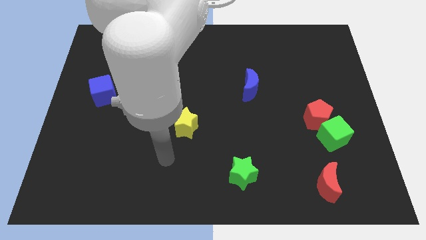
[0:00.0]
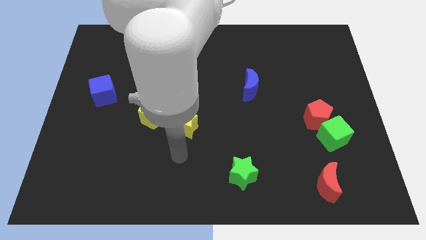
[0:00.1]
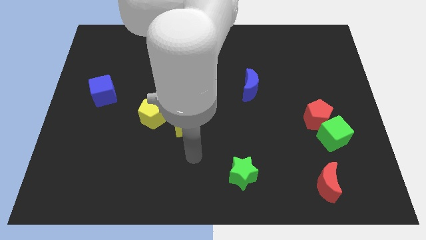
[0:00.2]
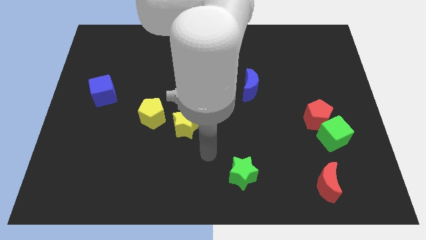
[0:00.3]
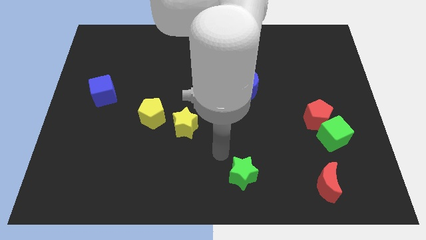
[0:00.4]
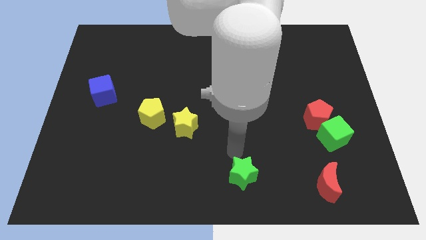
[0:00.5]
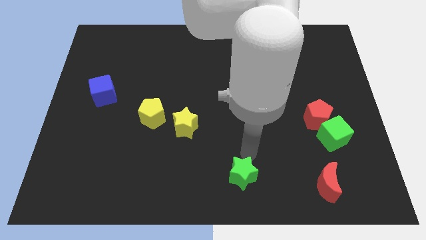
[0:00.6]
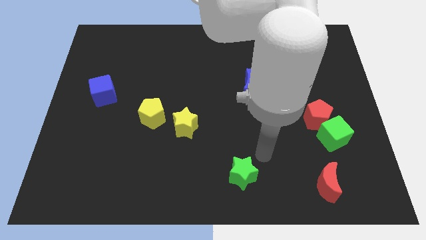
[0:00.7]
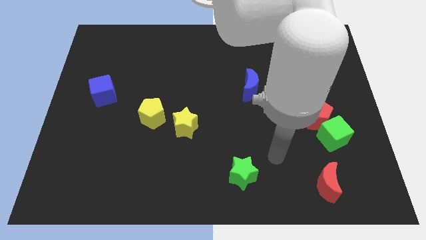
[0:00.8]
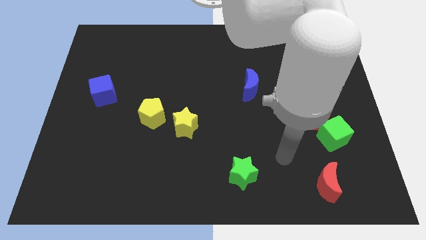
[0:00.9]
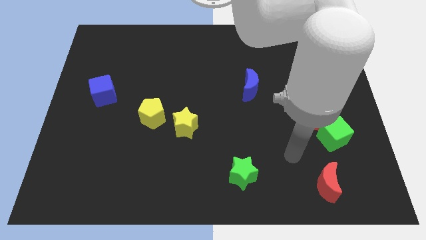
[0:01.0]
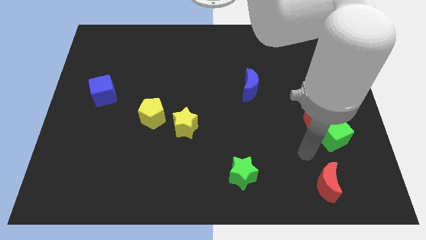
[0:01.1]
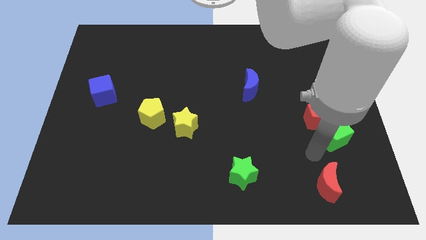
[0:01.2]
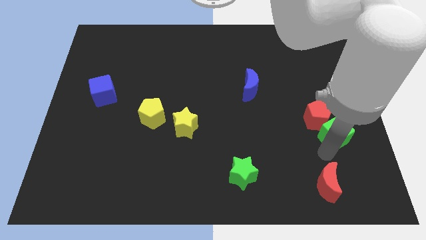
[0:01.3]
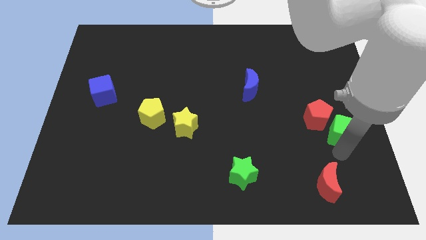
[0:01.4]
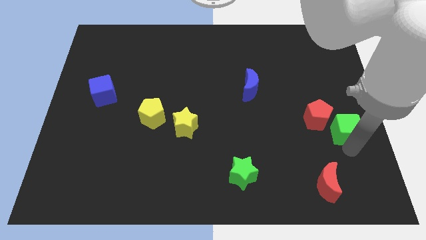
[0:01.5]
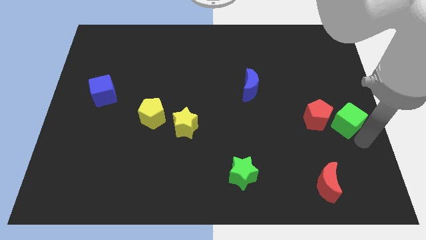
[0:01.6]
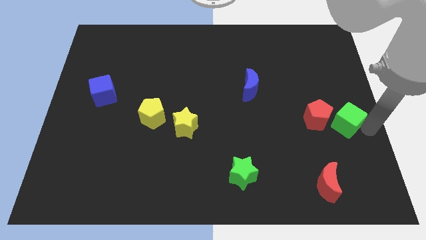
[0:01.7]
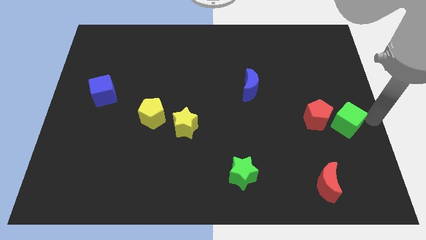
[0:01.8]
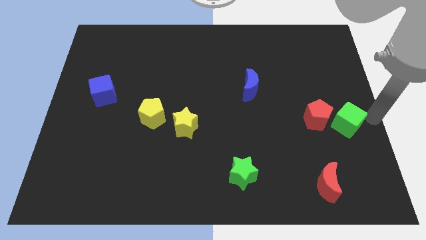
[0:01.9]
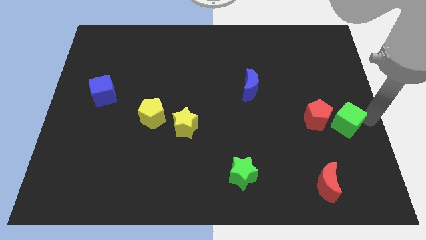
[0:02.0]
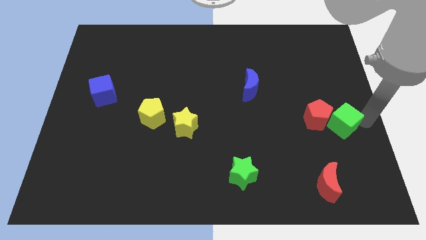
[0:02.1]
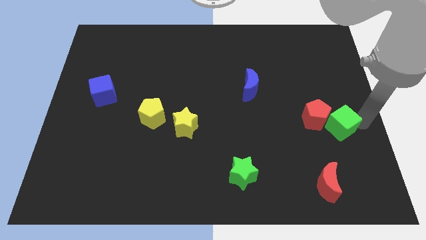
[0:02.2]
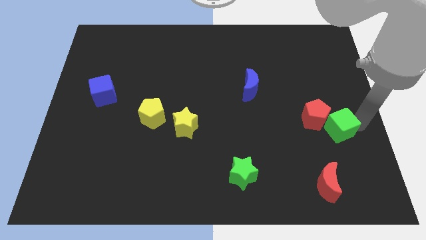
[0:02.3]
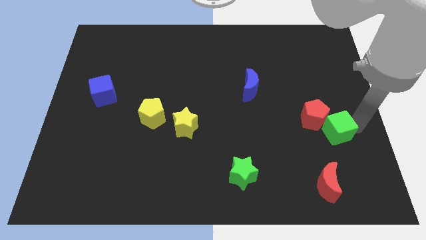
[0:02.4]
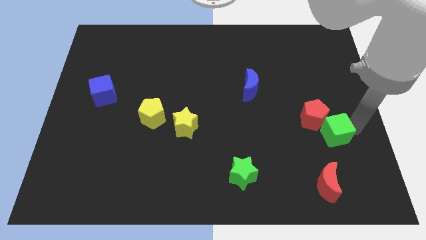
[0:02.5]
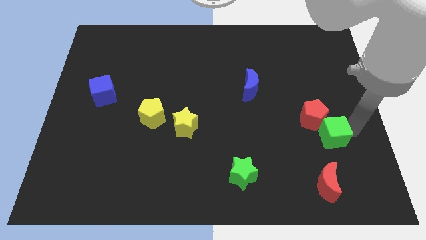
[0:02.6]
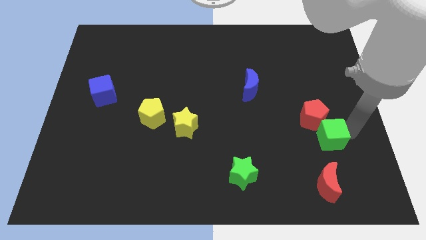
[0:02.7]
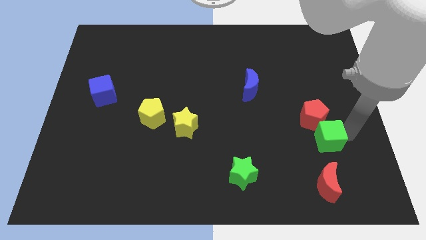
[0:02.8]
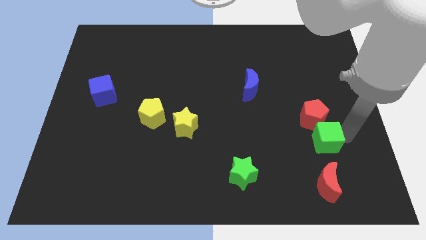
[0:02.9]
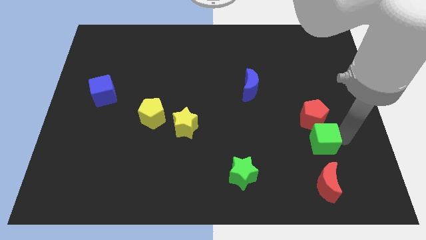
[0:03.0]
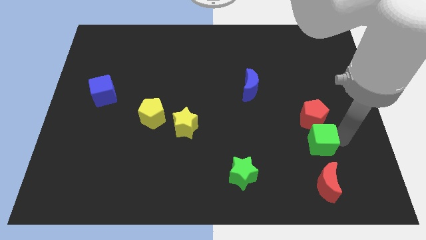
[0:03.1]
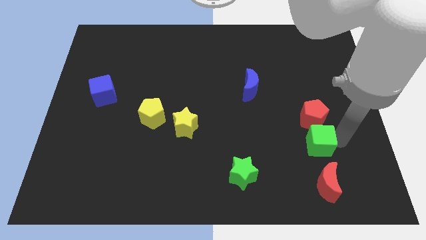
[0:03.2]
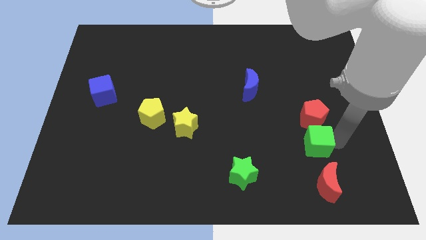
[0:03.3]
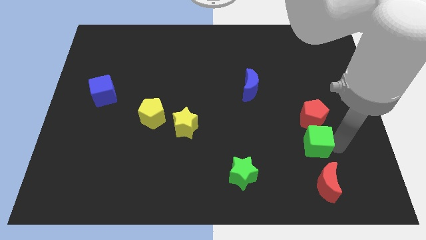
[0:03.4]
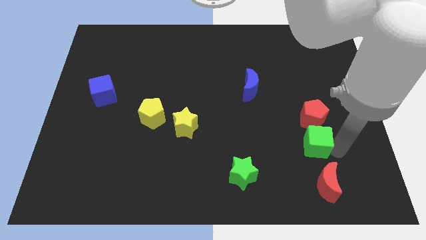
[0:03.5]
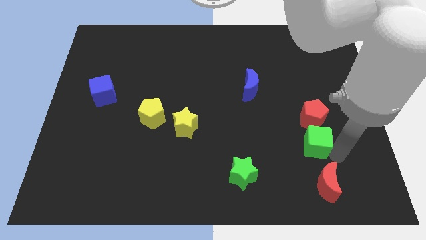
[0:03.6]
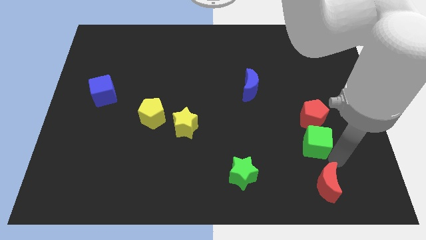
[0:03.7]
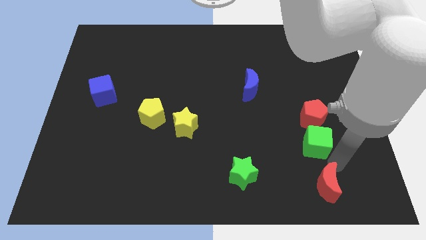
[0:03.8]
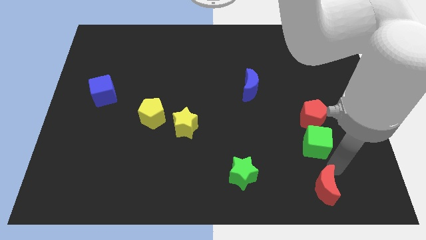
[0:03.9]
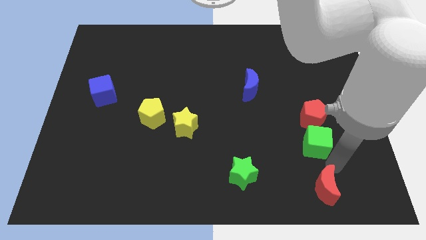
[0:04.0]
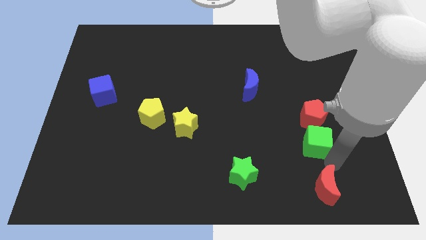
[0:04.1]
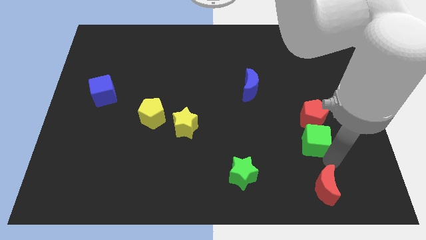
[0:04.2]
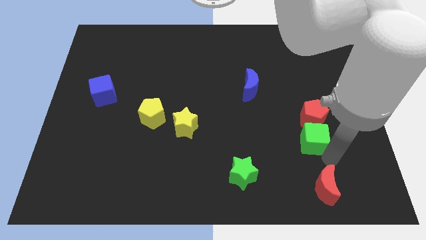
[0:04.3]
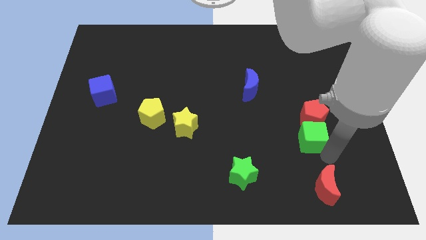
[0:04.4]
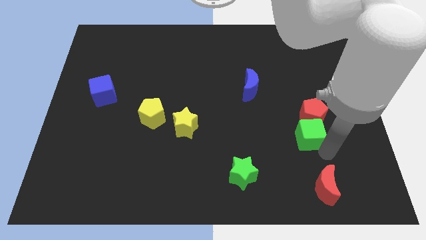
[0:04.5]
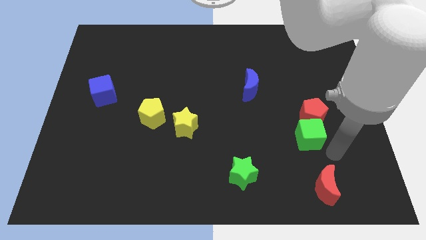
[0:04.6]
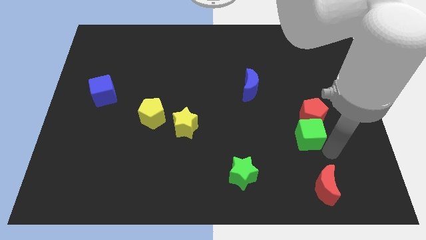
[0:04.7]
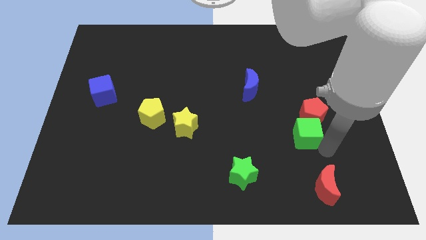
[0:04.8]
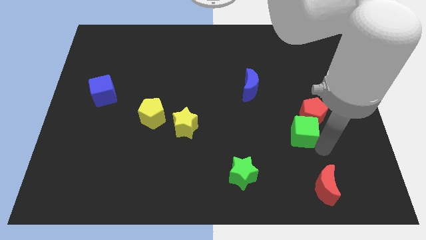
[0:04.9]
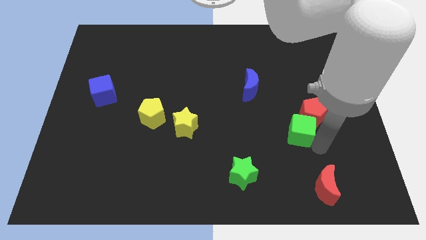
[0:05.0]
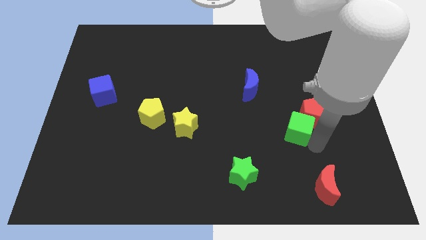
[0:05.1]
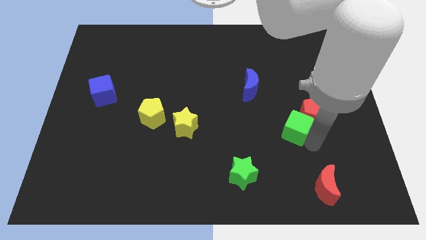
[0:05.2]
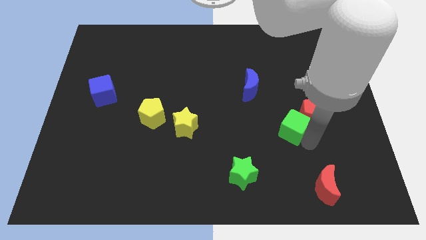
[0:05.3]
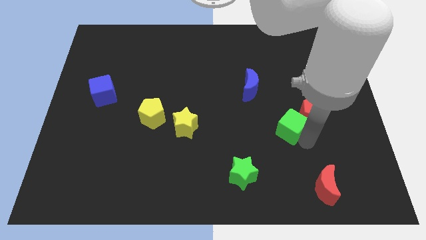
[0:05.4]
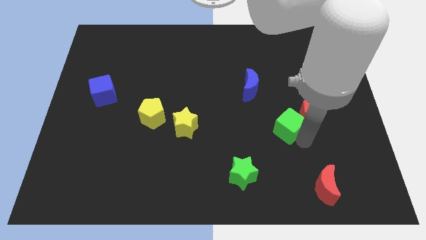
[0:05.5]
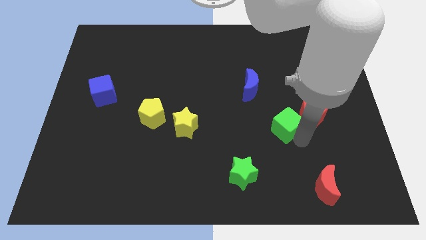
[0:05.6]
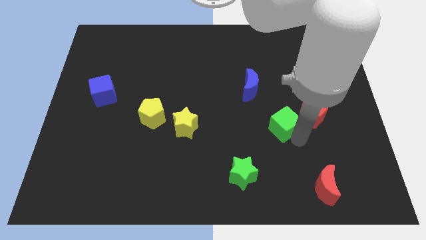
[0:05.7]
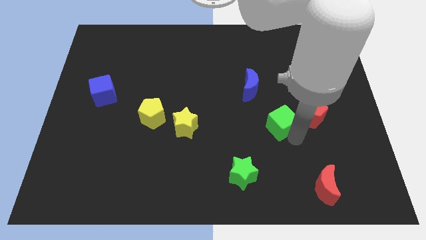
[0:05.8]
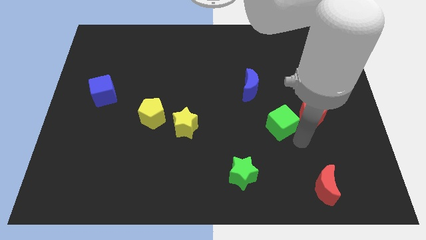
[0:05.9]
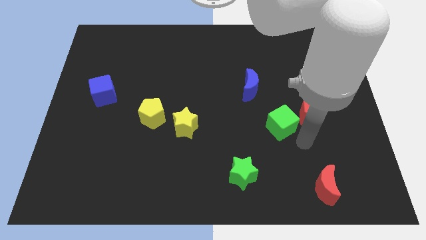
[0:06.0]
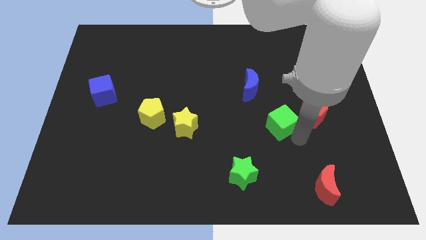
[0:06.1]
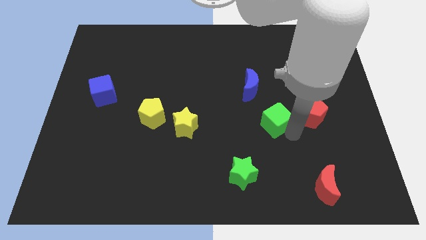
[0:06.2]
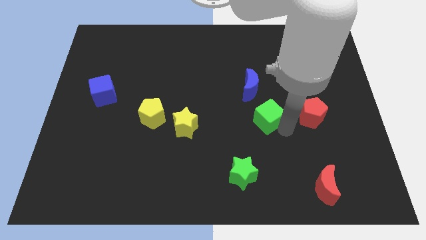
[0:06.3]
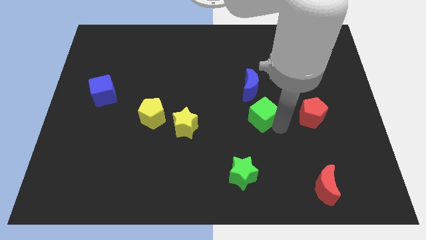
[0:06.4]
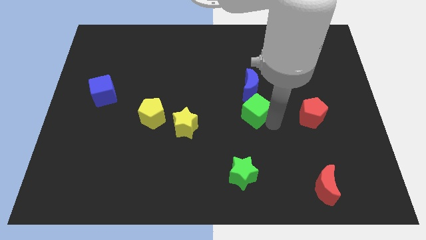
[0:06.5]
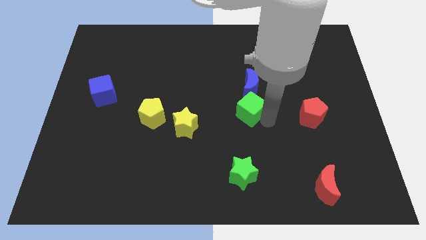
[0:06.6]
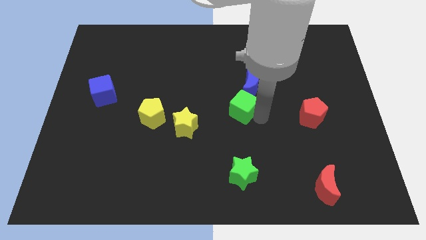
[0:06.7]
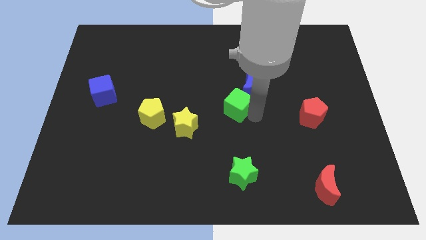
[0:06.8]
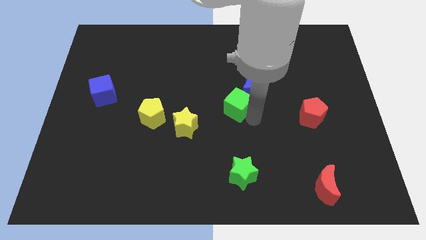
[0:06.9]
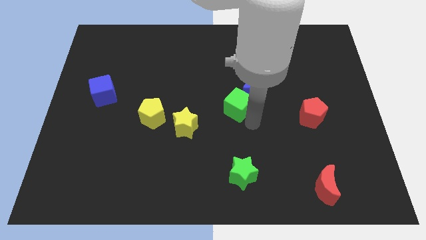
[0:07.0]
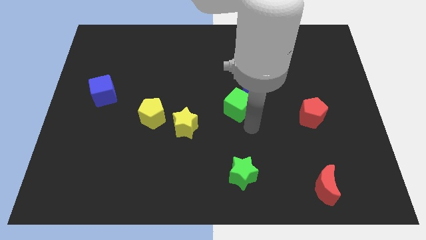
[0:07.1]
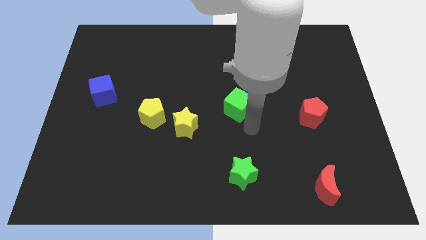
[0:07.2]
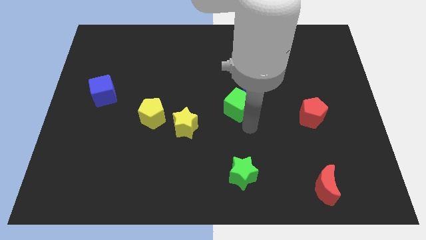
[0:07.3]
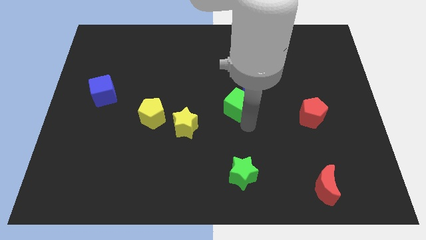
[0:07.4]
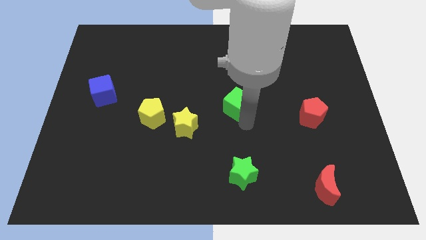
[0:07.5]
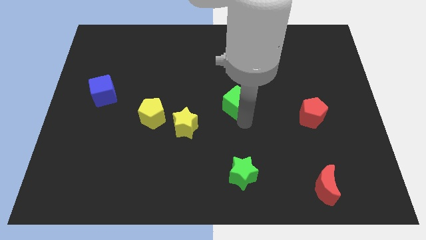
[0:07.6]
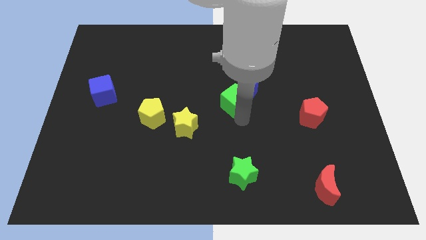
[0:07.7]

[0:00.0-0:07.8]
slide the green cube just left of the blue moon
